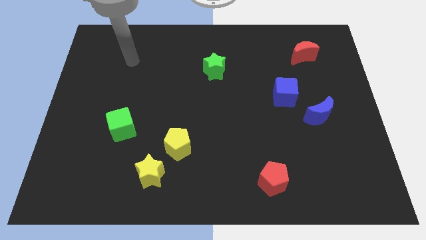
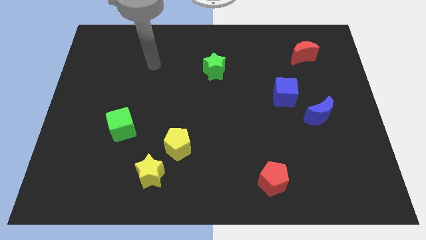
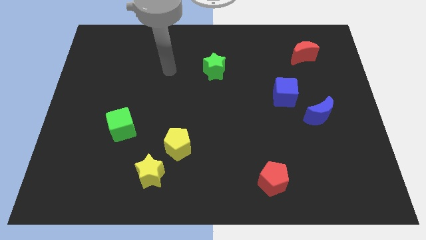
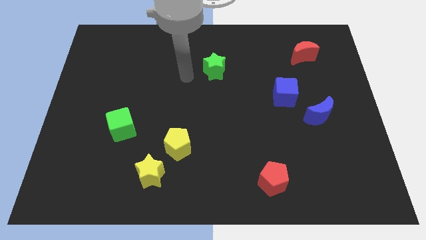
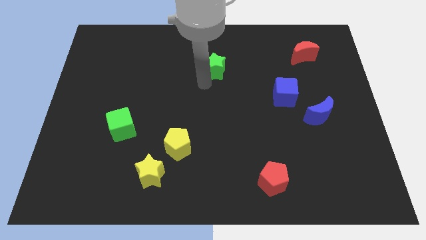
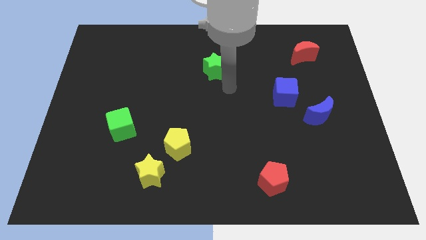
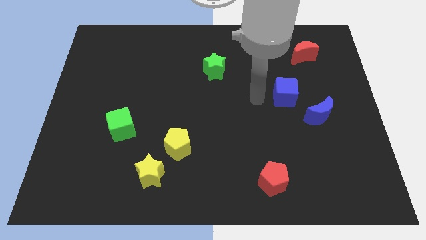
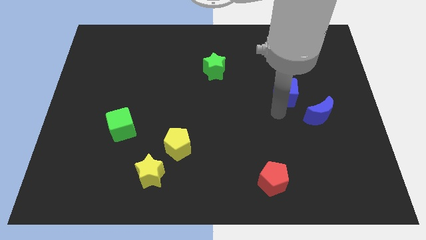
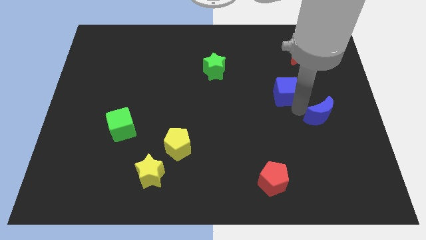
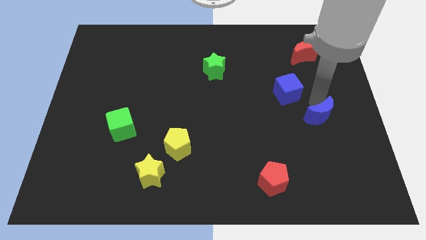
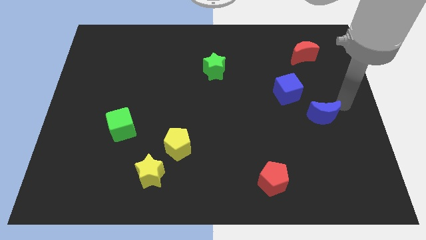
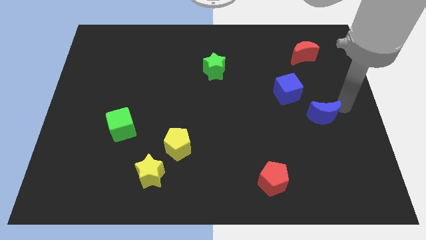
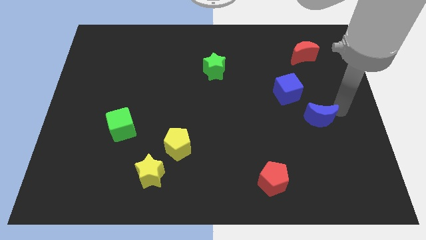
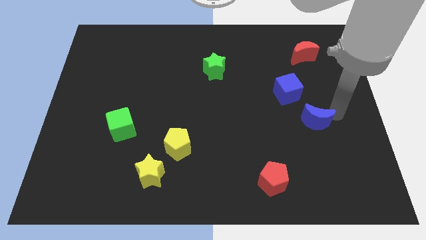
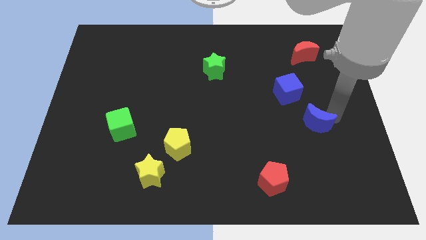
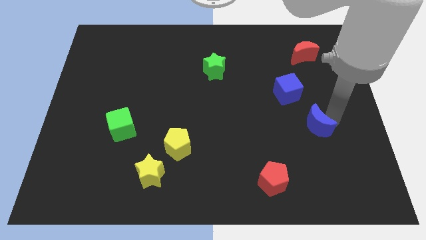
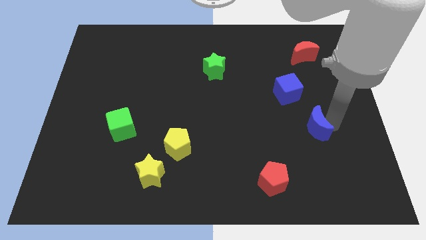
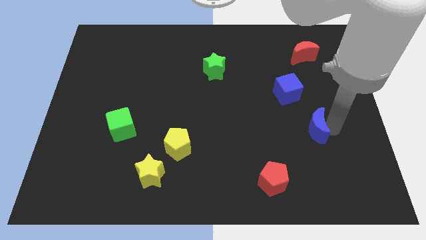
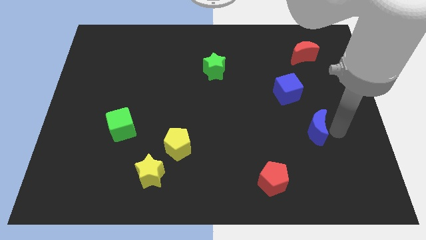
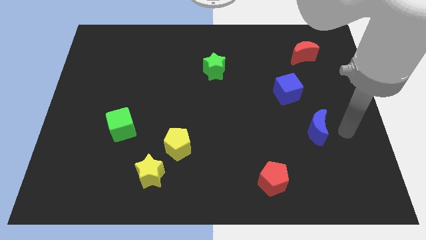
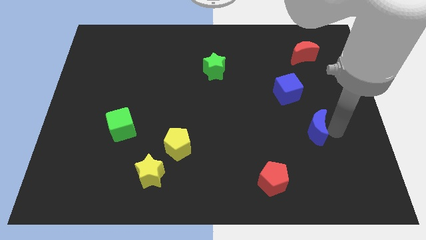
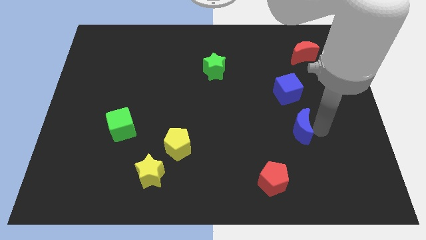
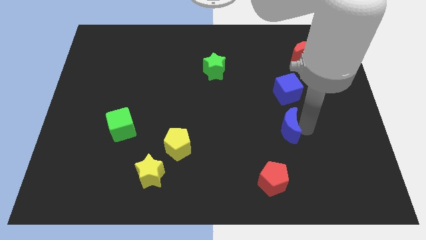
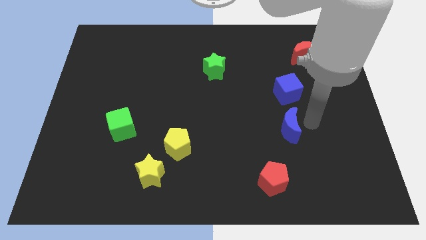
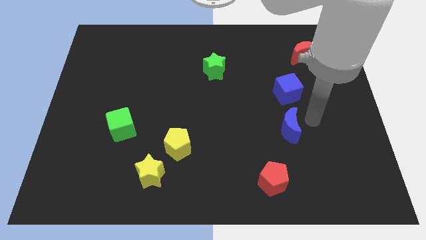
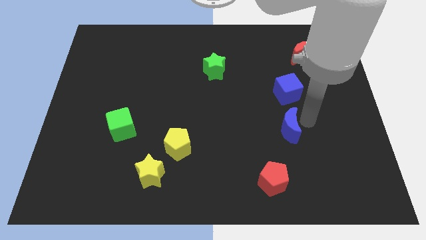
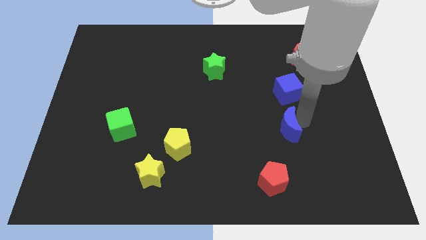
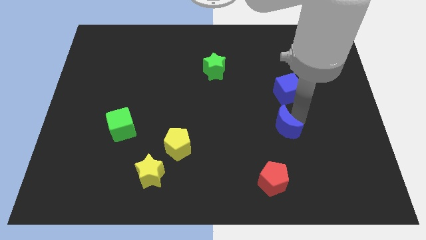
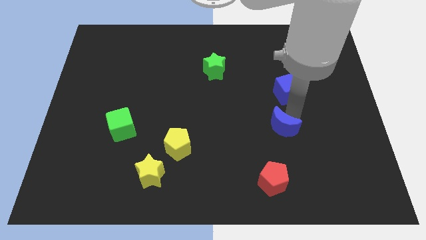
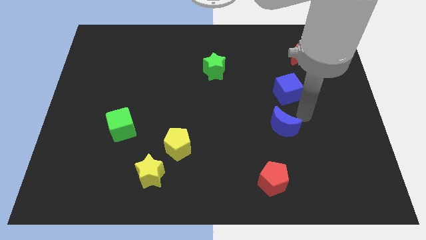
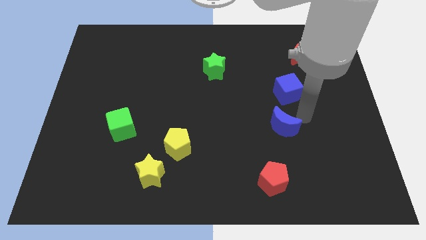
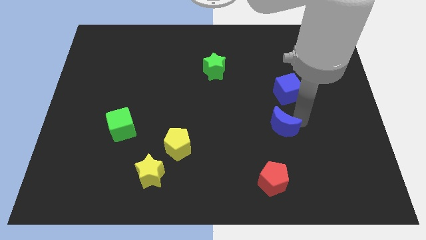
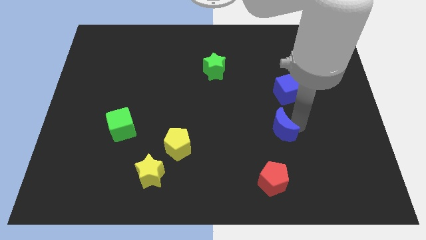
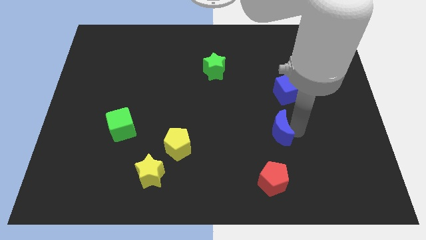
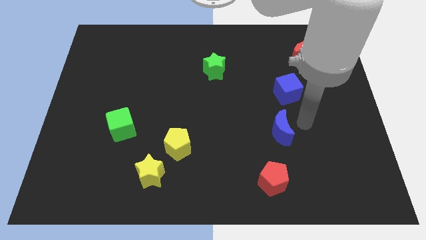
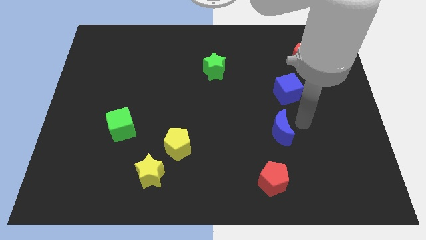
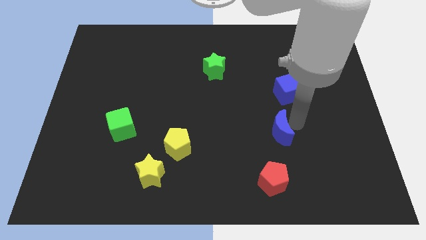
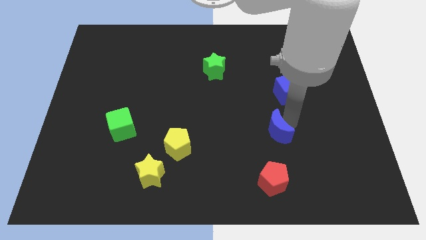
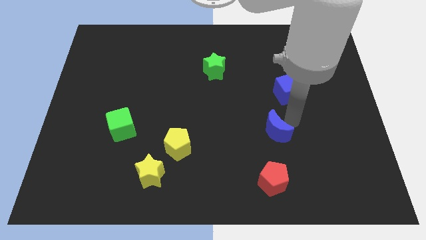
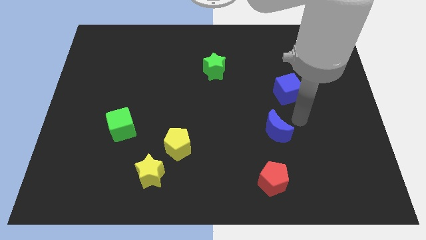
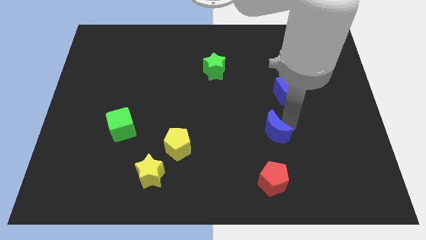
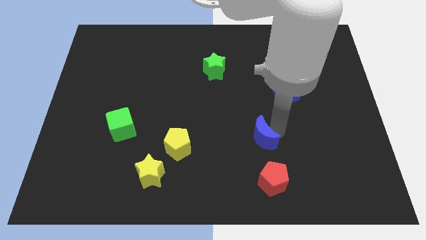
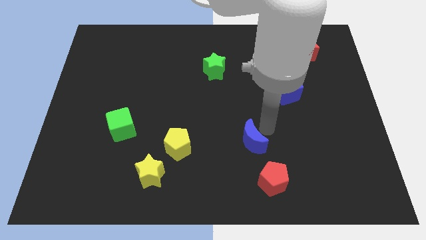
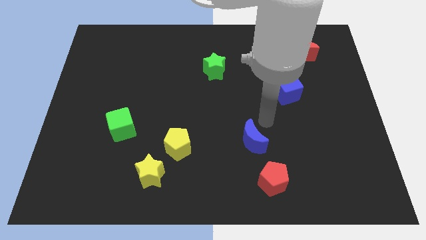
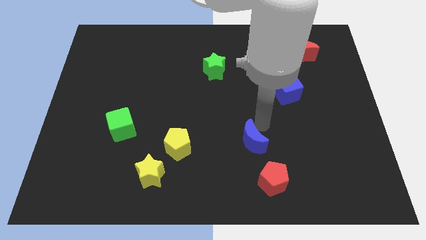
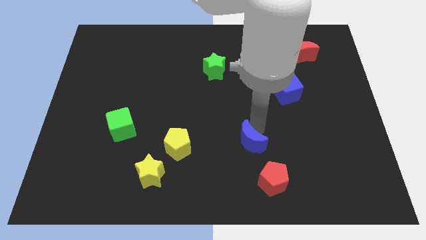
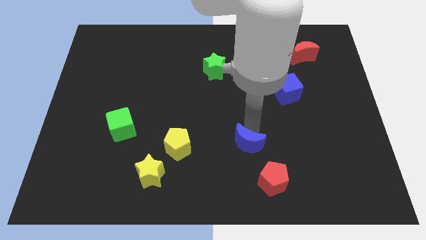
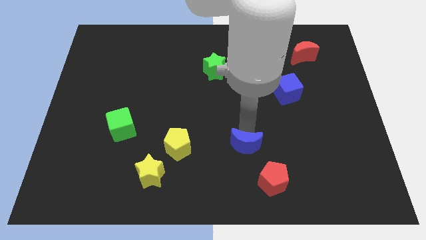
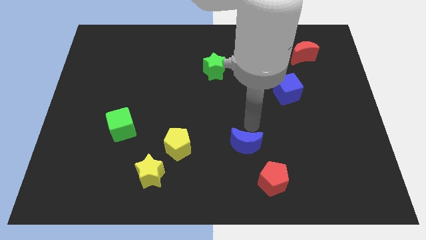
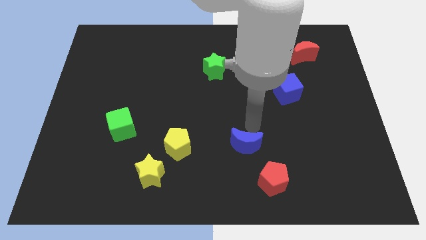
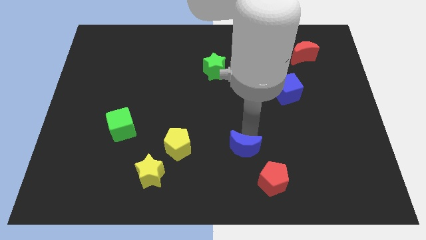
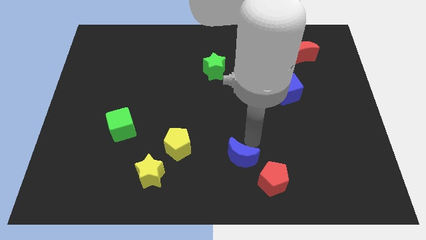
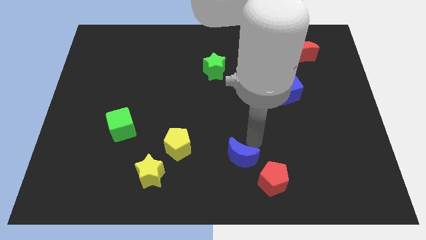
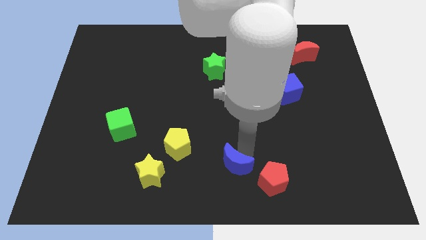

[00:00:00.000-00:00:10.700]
move the blue moon left of the red pentagon
